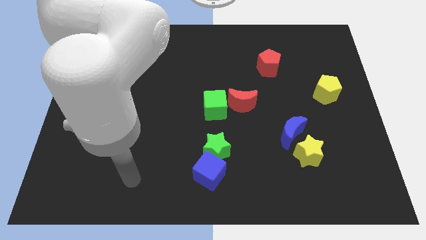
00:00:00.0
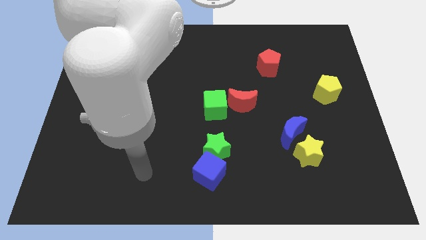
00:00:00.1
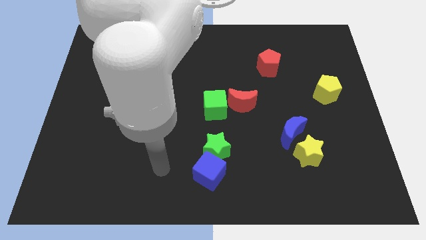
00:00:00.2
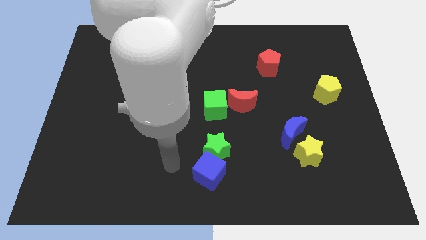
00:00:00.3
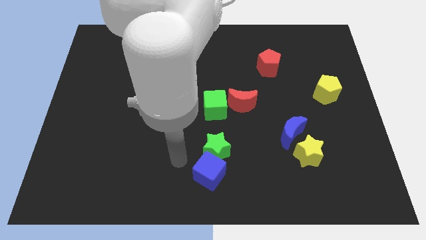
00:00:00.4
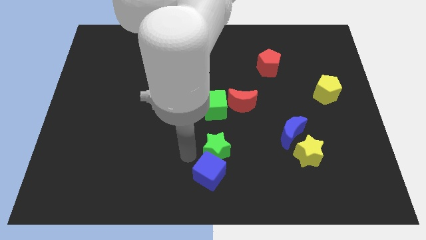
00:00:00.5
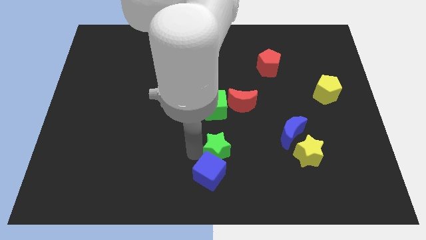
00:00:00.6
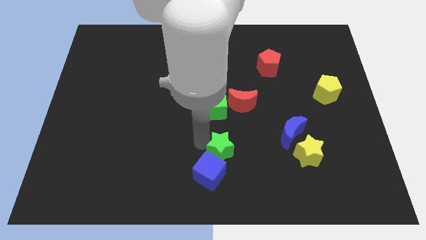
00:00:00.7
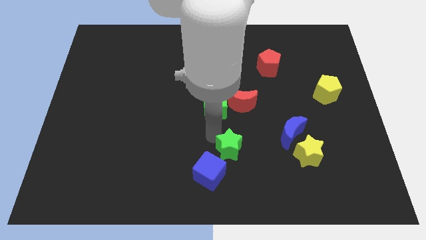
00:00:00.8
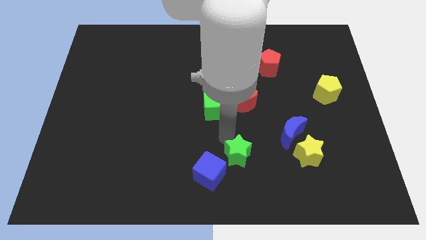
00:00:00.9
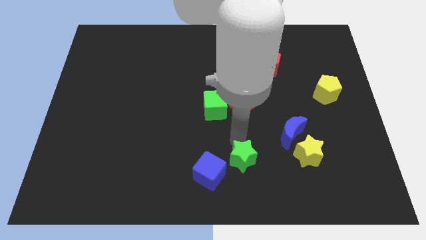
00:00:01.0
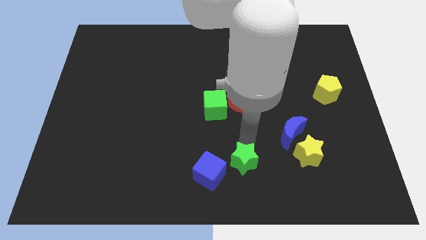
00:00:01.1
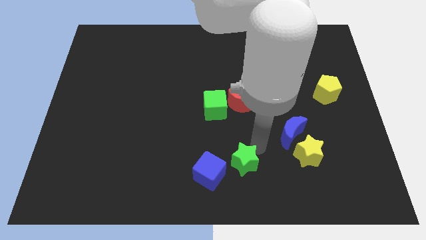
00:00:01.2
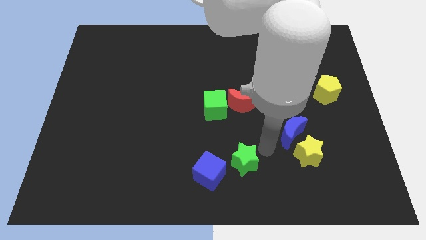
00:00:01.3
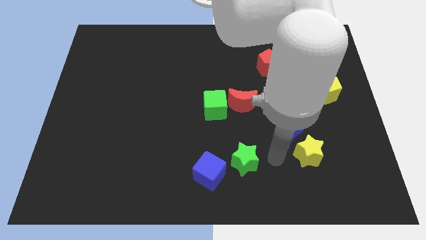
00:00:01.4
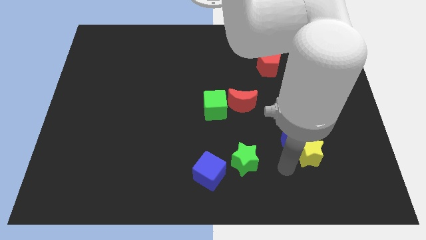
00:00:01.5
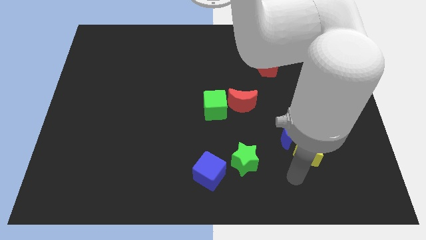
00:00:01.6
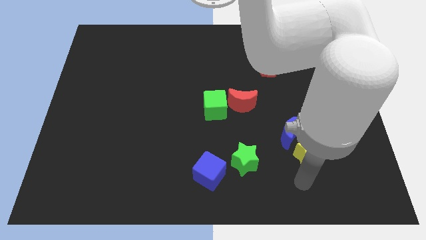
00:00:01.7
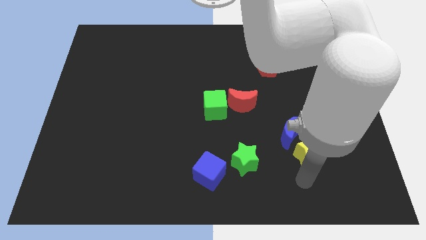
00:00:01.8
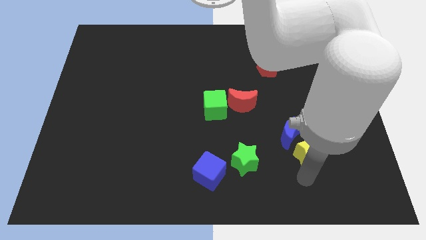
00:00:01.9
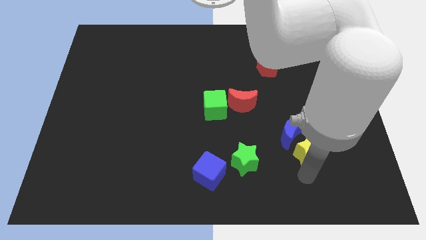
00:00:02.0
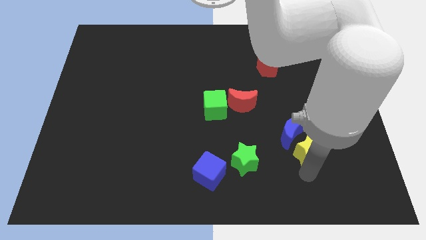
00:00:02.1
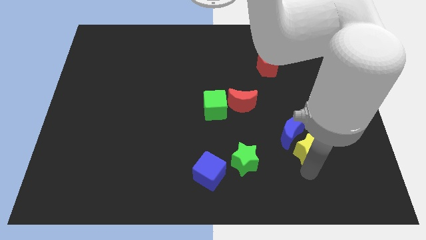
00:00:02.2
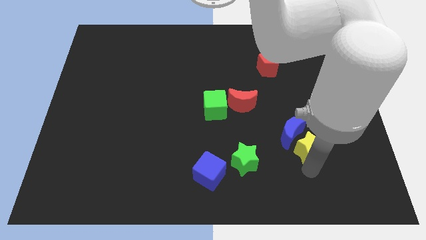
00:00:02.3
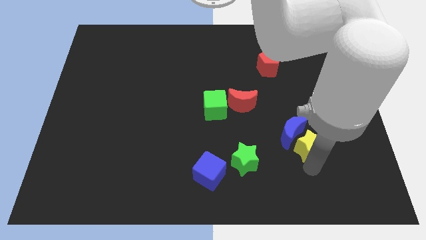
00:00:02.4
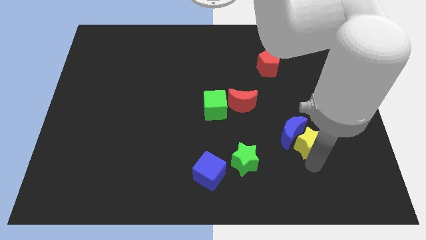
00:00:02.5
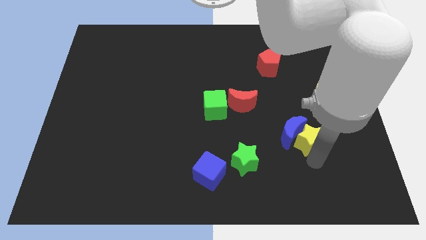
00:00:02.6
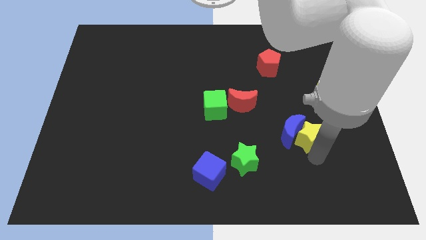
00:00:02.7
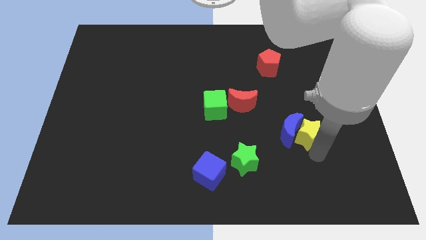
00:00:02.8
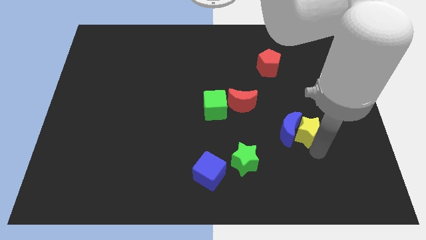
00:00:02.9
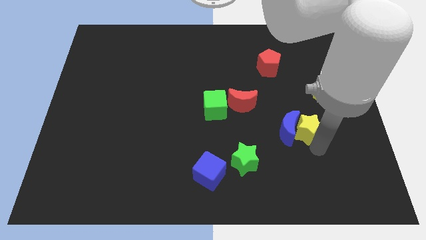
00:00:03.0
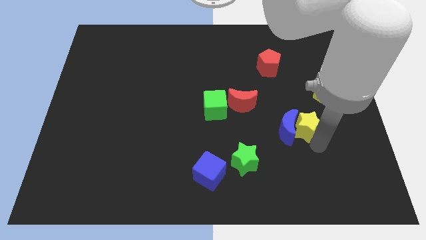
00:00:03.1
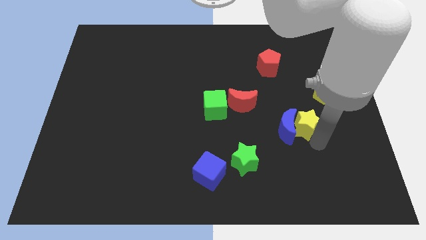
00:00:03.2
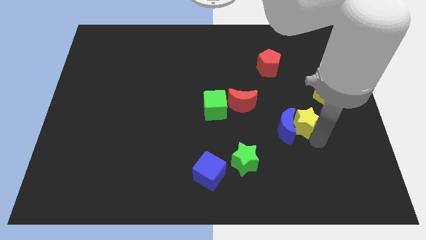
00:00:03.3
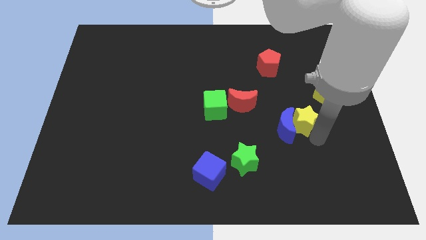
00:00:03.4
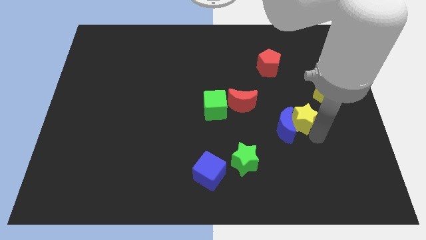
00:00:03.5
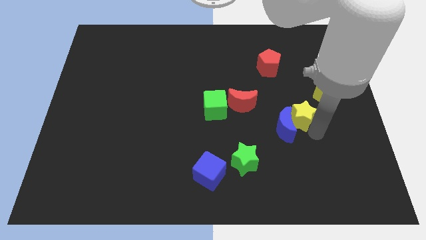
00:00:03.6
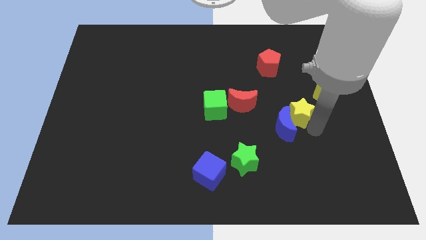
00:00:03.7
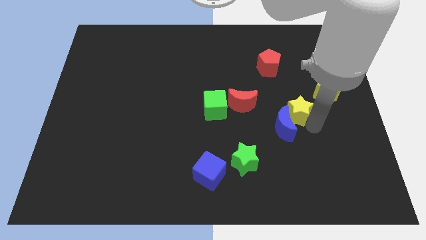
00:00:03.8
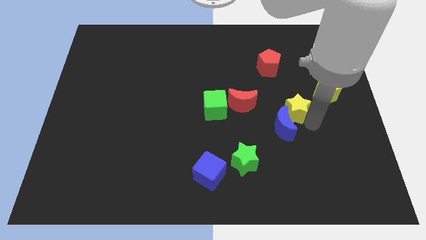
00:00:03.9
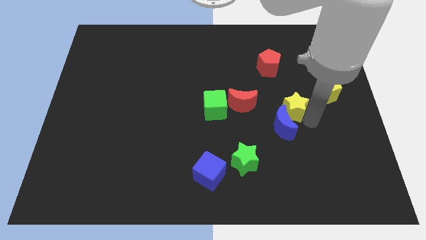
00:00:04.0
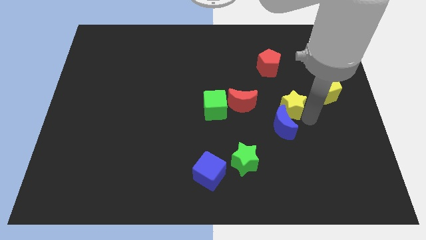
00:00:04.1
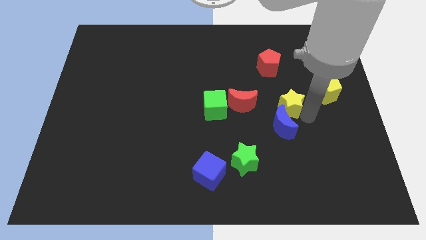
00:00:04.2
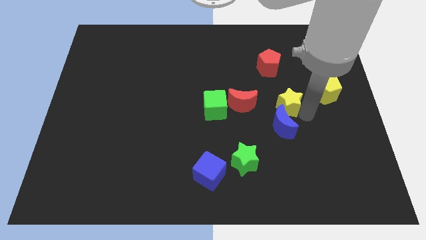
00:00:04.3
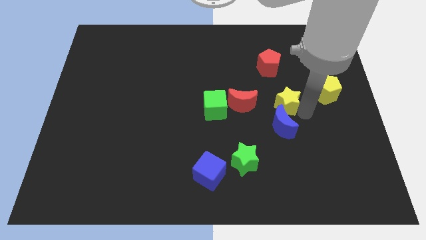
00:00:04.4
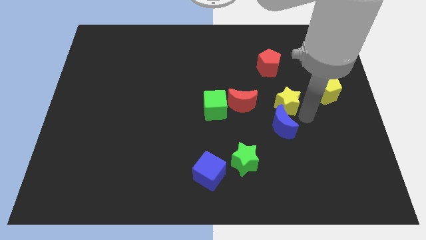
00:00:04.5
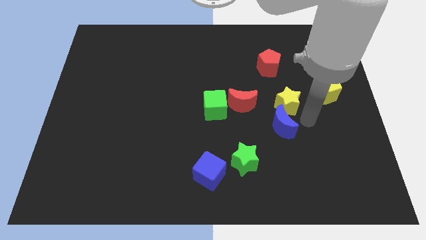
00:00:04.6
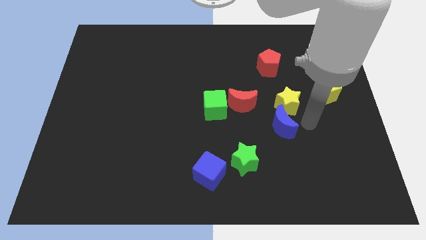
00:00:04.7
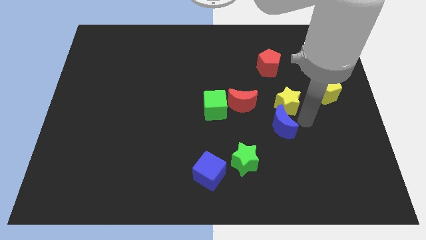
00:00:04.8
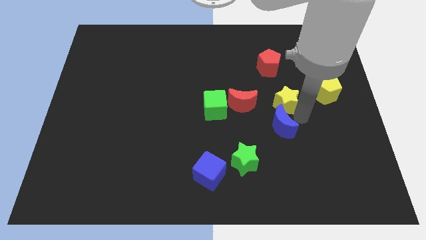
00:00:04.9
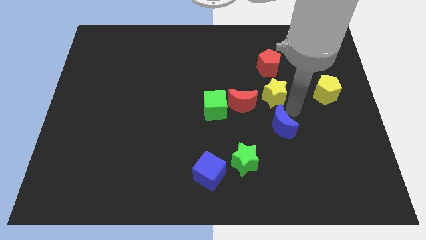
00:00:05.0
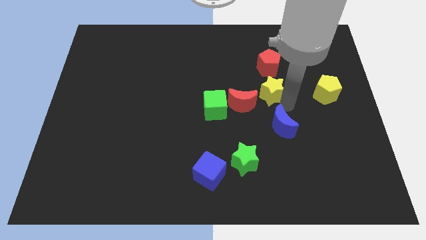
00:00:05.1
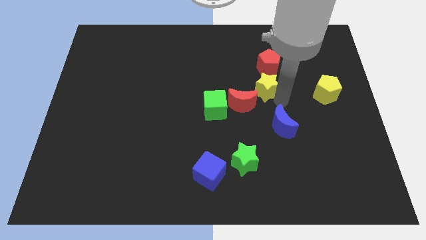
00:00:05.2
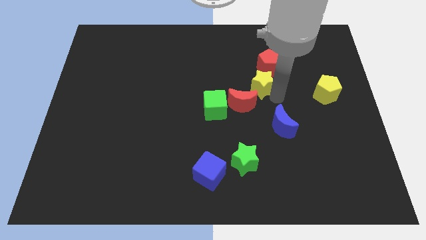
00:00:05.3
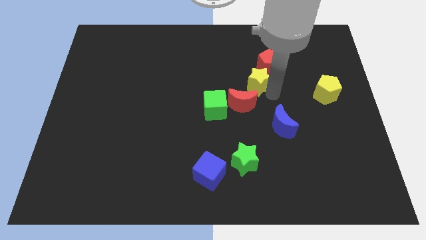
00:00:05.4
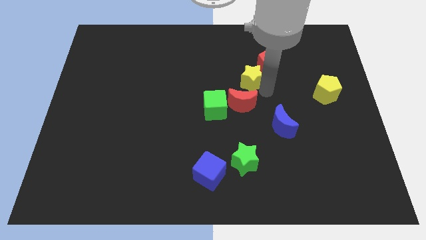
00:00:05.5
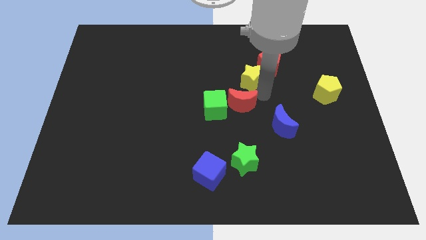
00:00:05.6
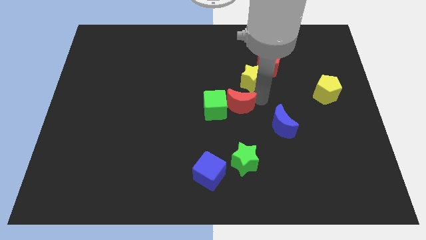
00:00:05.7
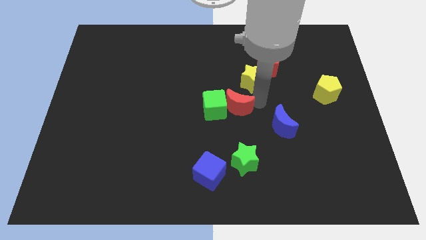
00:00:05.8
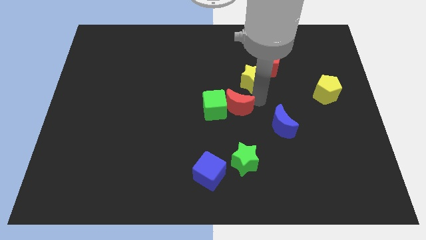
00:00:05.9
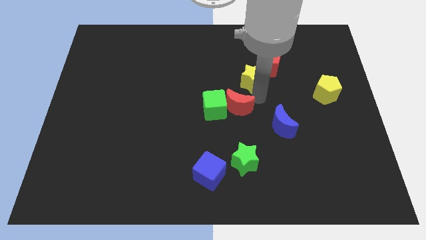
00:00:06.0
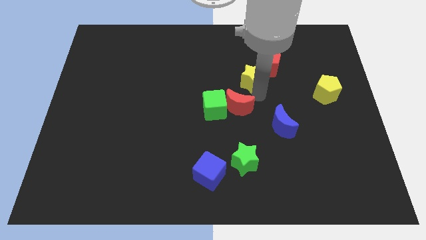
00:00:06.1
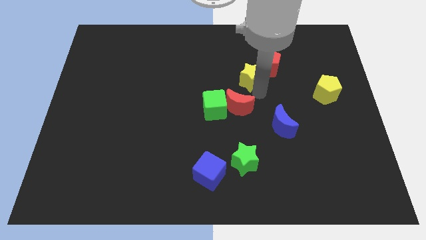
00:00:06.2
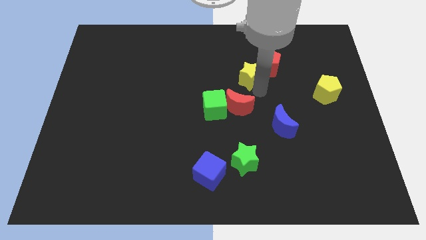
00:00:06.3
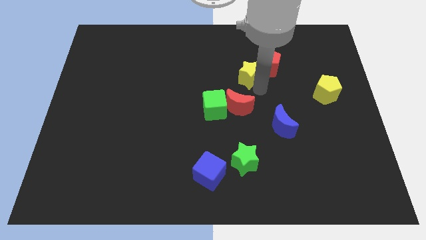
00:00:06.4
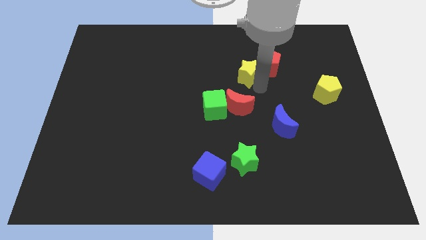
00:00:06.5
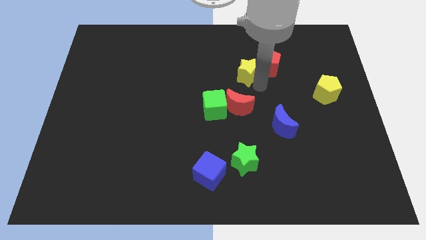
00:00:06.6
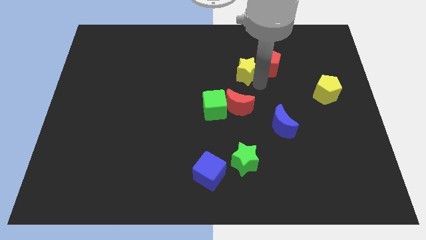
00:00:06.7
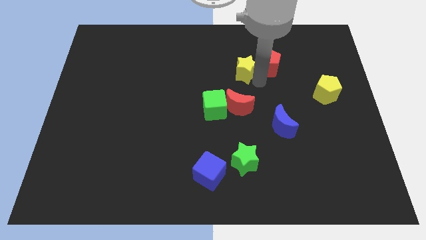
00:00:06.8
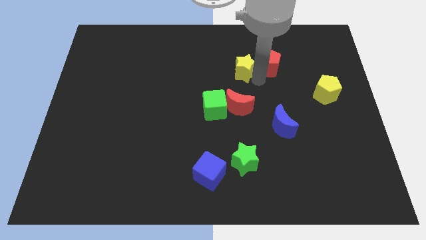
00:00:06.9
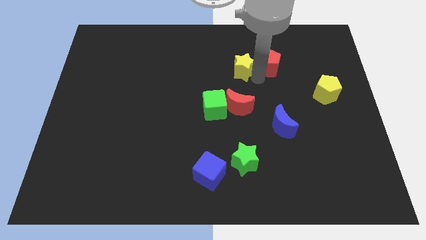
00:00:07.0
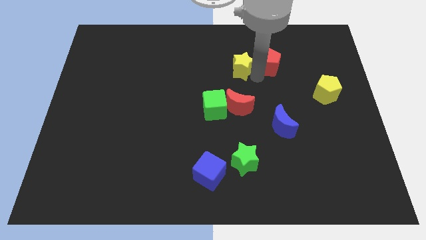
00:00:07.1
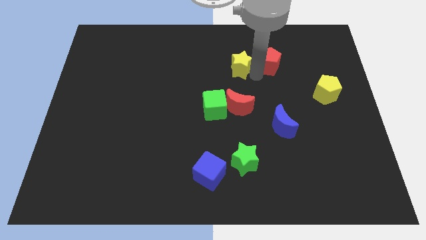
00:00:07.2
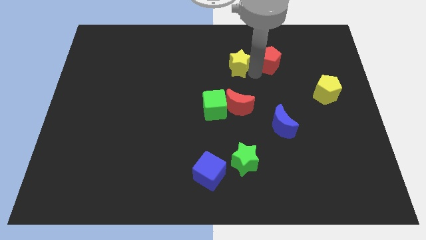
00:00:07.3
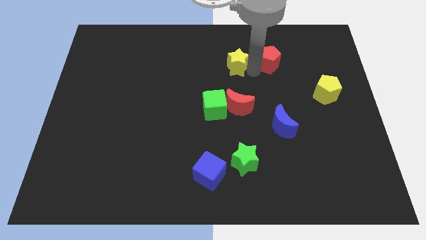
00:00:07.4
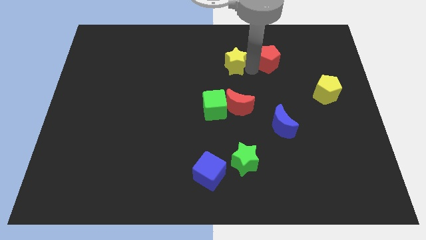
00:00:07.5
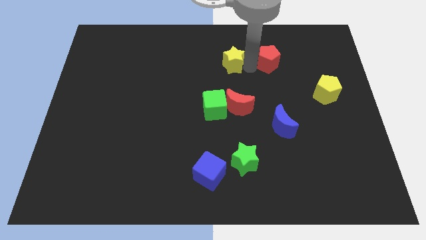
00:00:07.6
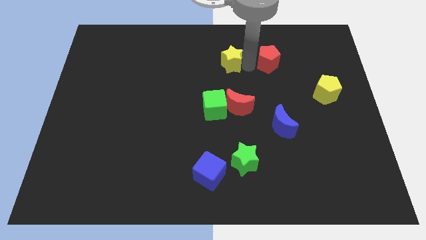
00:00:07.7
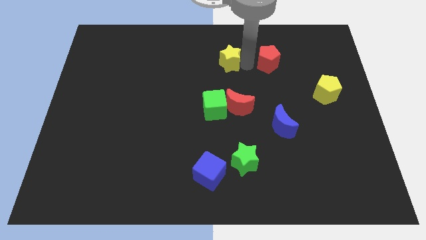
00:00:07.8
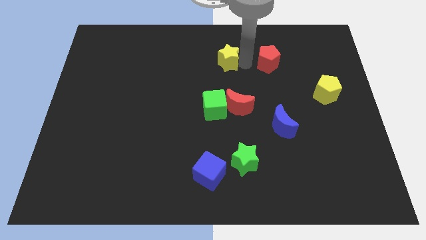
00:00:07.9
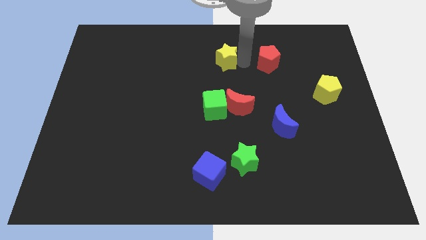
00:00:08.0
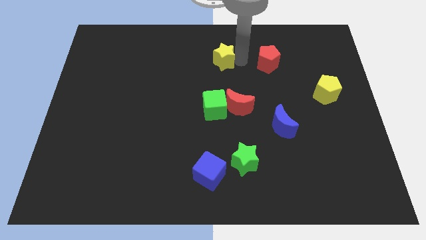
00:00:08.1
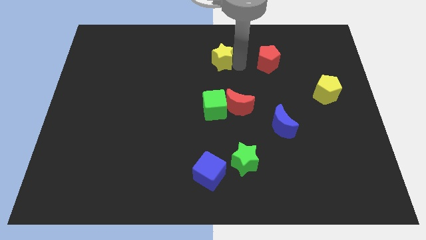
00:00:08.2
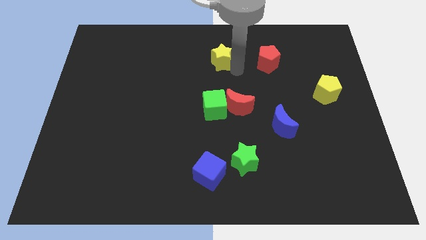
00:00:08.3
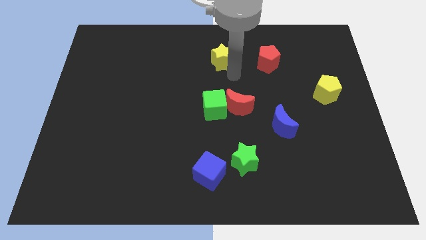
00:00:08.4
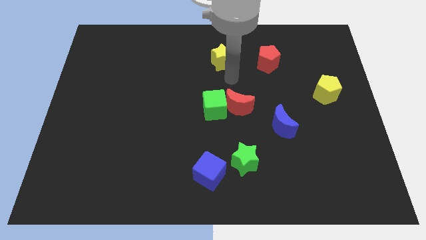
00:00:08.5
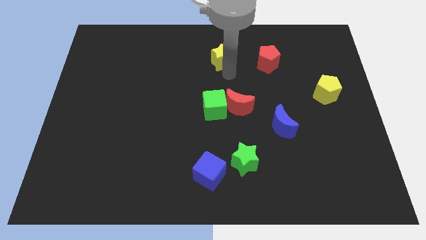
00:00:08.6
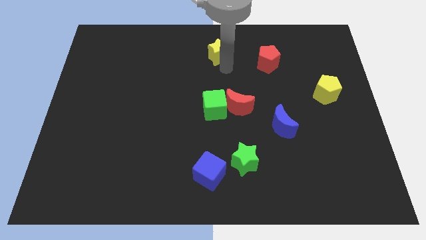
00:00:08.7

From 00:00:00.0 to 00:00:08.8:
move the yellow star to the top side
